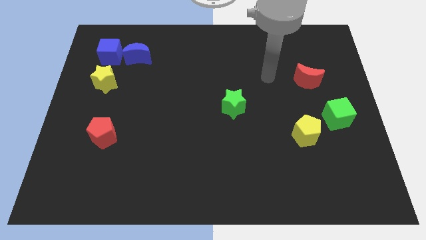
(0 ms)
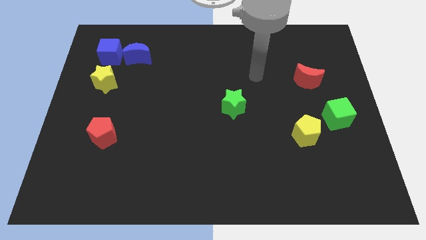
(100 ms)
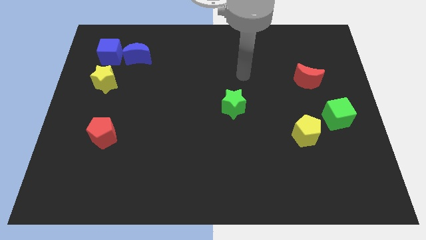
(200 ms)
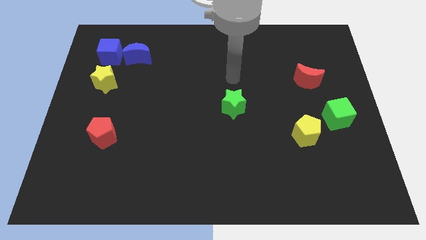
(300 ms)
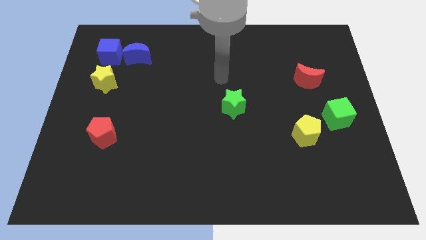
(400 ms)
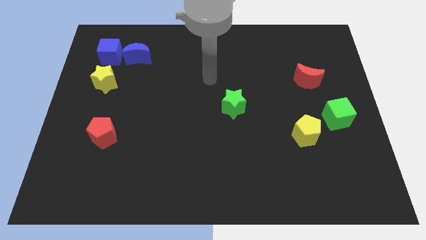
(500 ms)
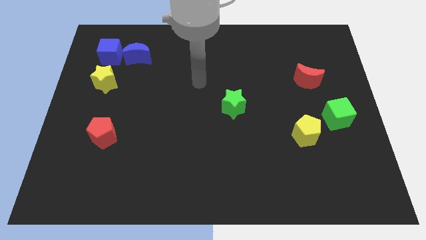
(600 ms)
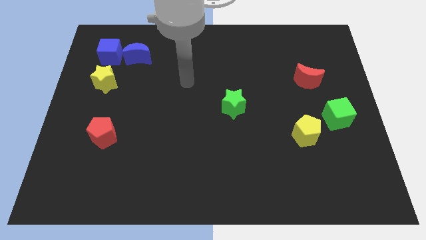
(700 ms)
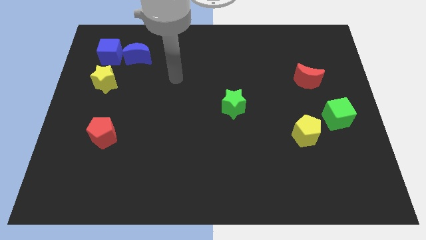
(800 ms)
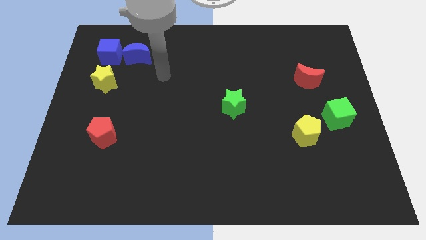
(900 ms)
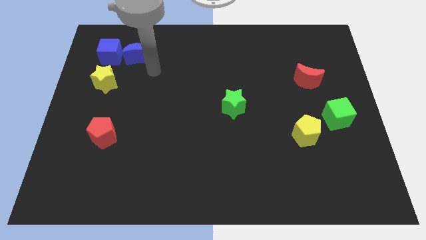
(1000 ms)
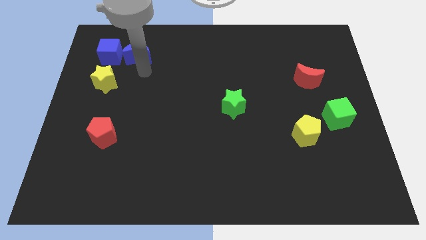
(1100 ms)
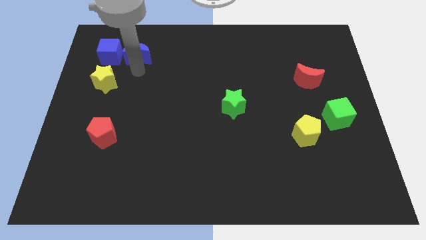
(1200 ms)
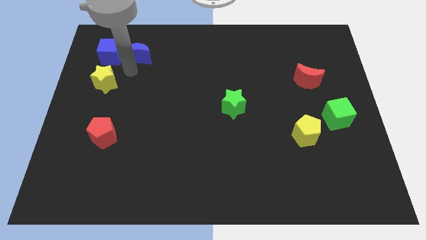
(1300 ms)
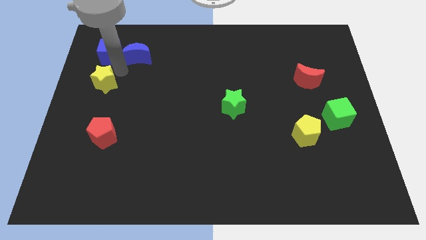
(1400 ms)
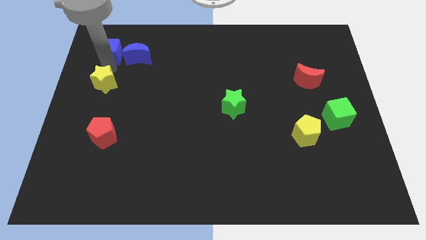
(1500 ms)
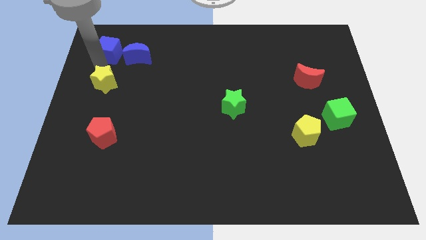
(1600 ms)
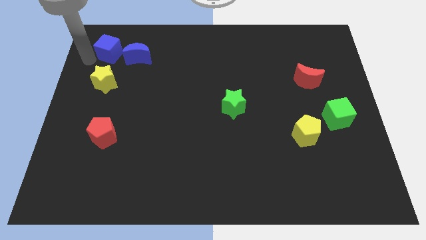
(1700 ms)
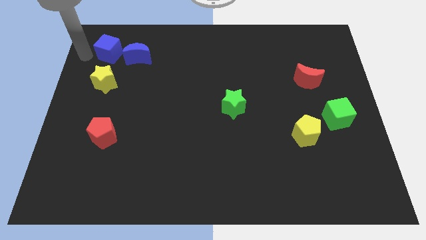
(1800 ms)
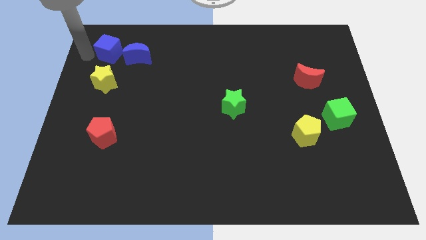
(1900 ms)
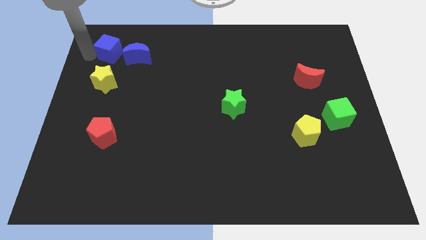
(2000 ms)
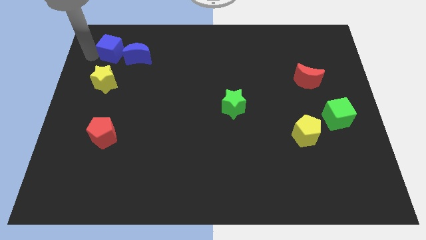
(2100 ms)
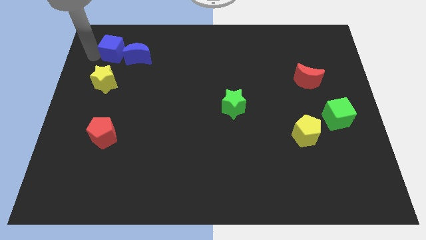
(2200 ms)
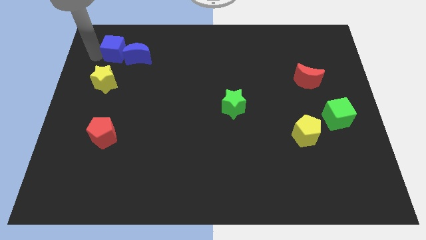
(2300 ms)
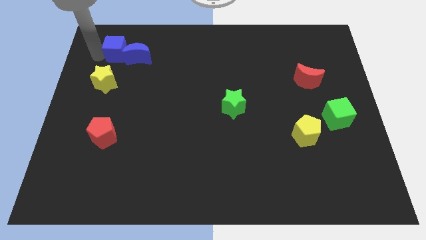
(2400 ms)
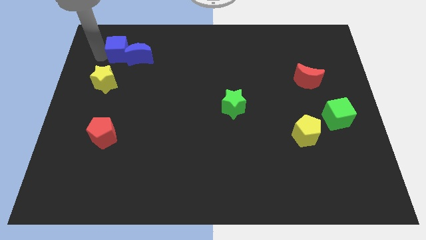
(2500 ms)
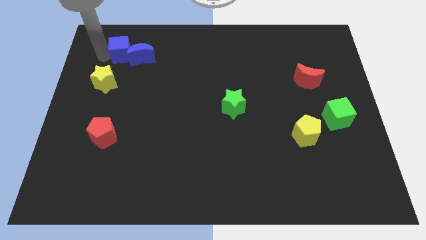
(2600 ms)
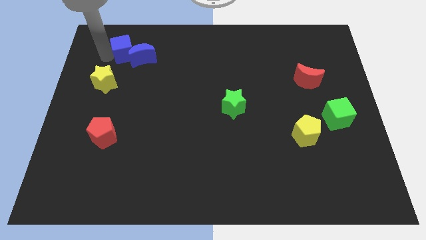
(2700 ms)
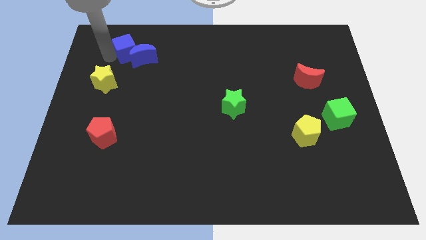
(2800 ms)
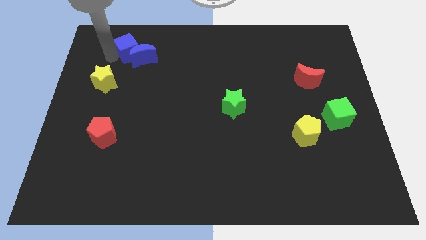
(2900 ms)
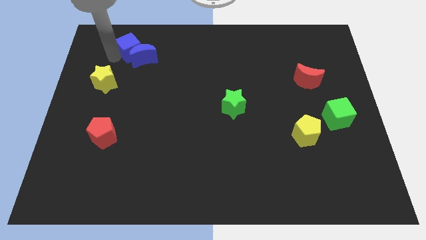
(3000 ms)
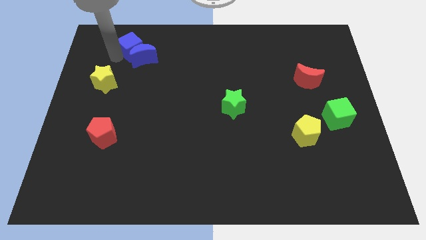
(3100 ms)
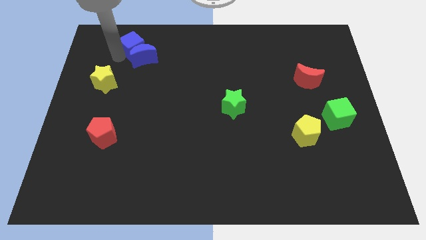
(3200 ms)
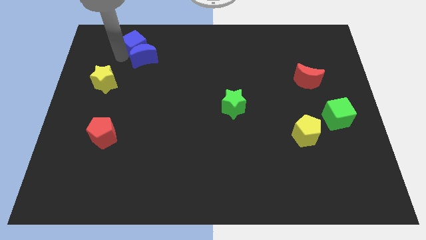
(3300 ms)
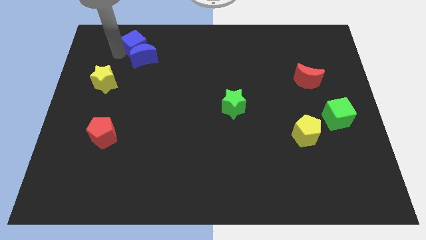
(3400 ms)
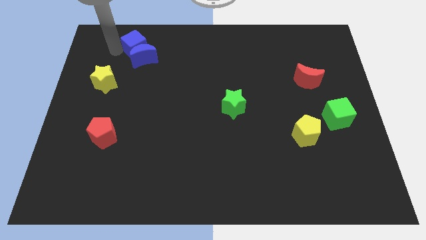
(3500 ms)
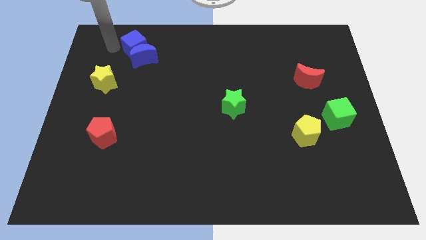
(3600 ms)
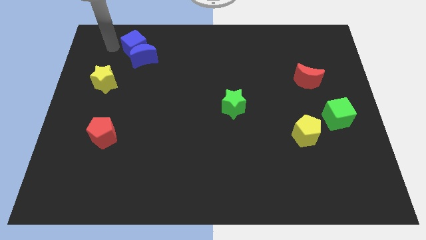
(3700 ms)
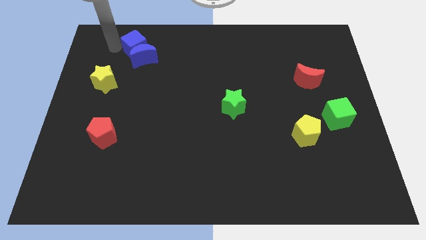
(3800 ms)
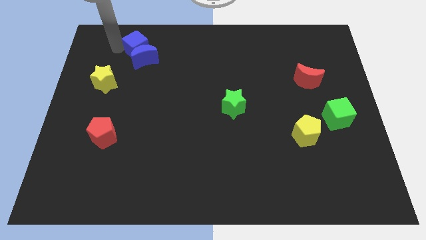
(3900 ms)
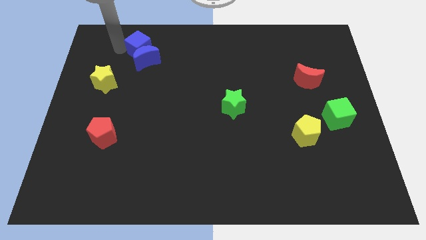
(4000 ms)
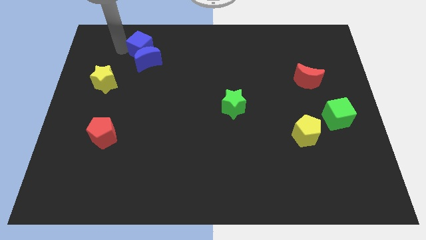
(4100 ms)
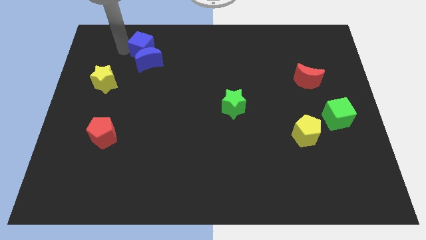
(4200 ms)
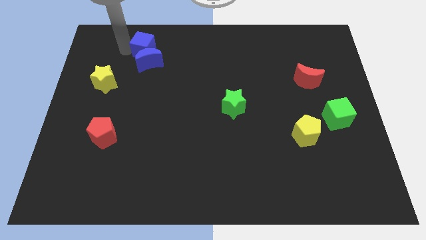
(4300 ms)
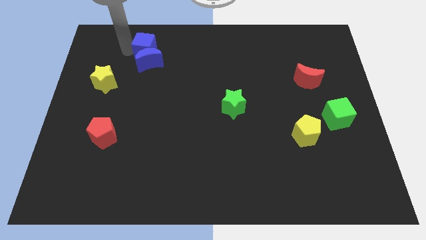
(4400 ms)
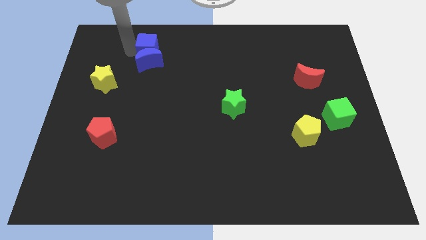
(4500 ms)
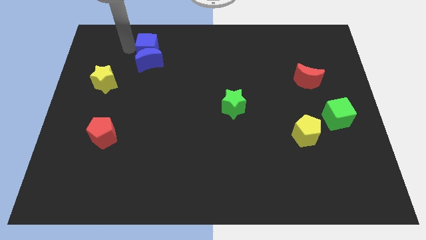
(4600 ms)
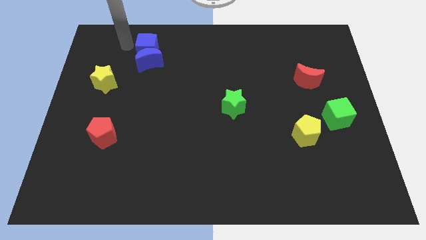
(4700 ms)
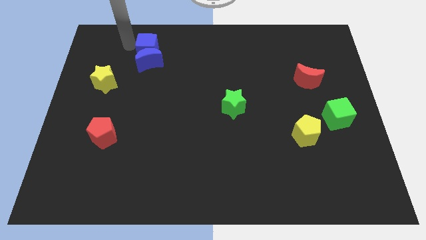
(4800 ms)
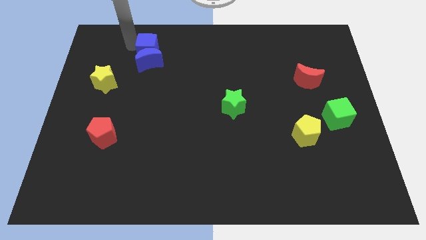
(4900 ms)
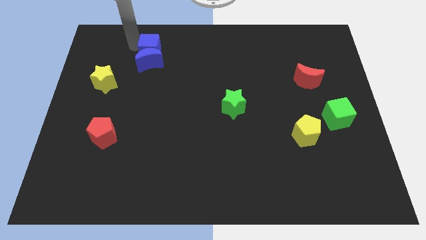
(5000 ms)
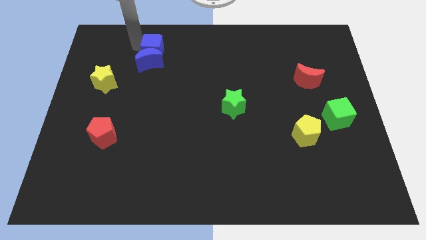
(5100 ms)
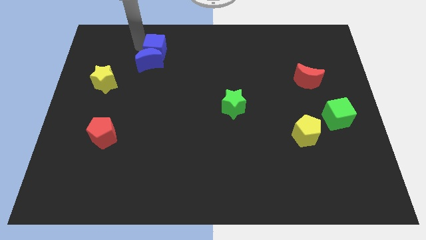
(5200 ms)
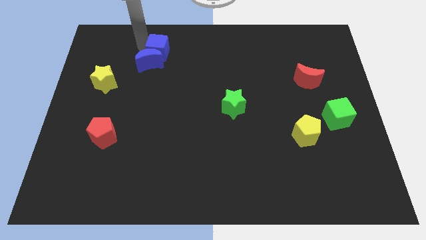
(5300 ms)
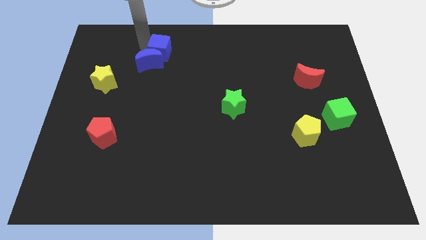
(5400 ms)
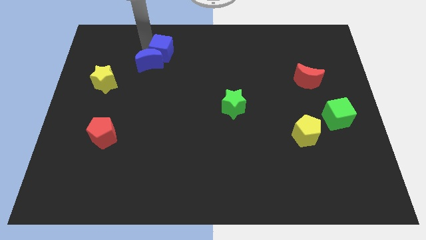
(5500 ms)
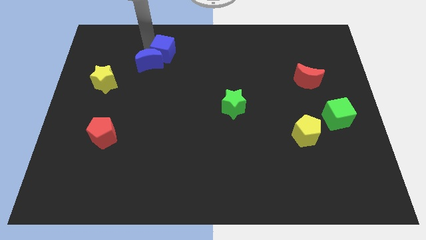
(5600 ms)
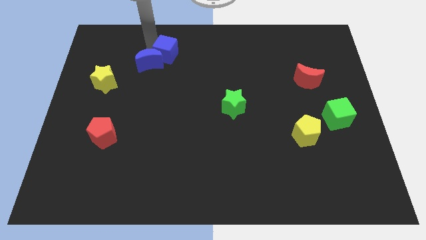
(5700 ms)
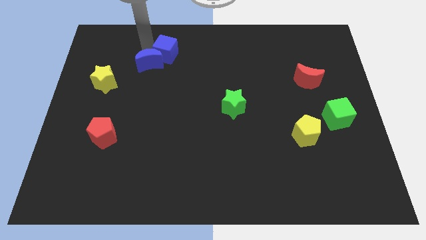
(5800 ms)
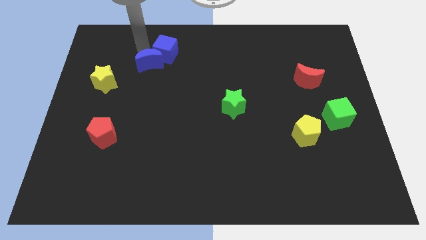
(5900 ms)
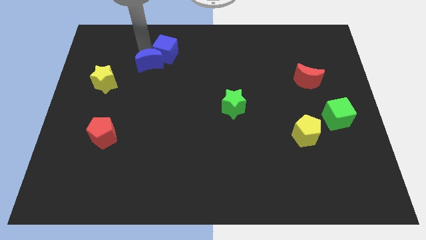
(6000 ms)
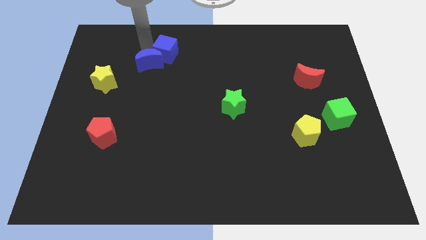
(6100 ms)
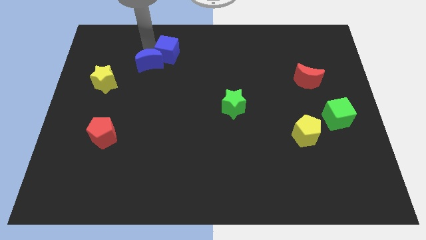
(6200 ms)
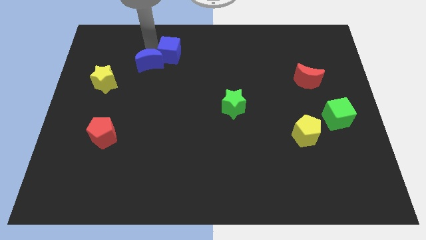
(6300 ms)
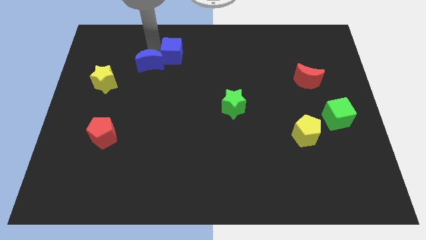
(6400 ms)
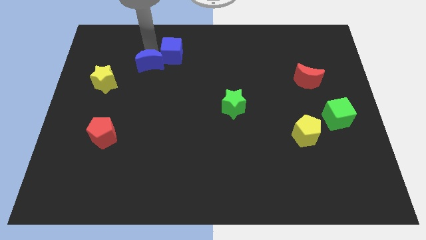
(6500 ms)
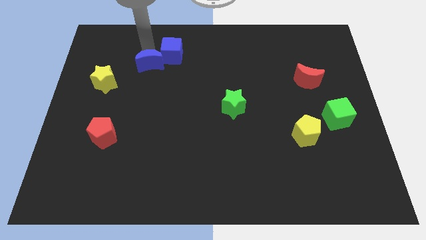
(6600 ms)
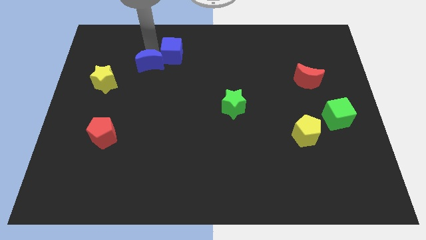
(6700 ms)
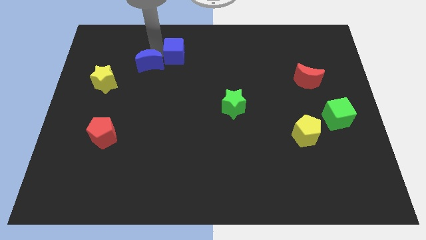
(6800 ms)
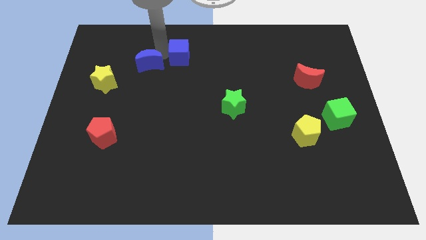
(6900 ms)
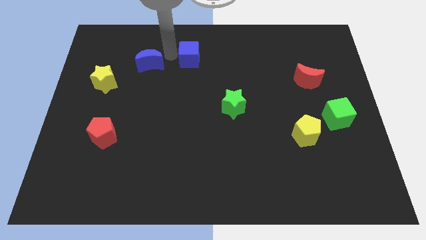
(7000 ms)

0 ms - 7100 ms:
push the blue cube to the right

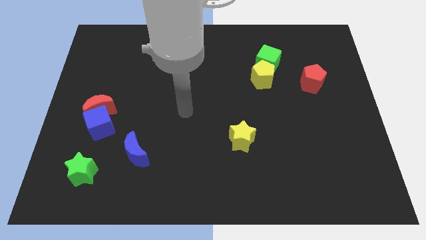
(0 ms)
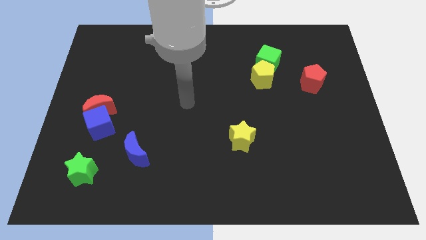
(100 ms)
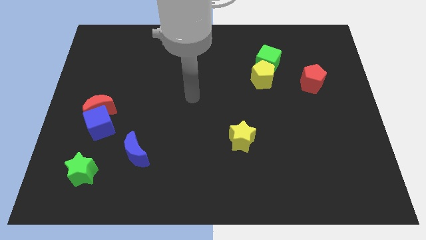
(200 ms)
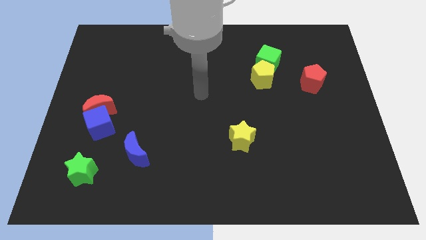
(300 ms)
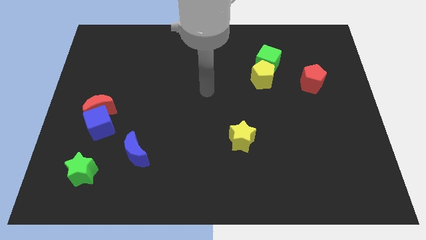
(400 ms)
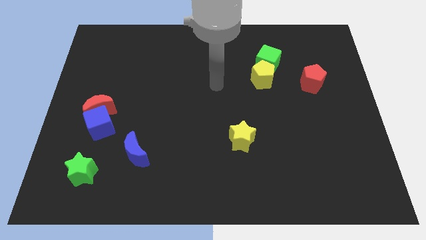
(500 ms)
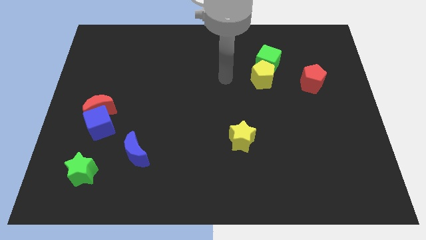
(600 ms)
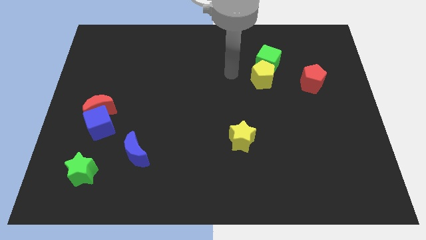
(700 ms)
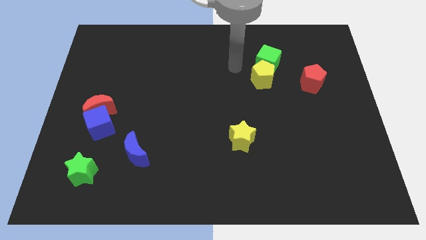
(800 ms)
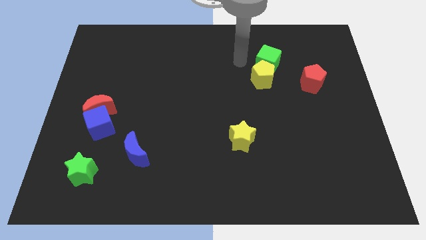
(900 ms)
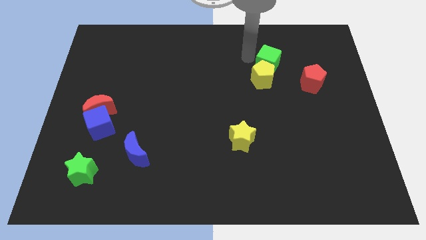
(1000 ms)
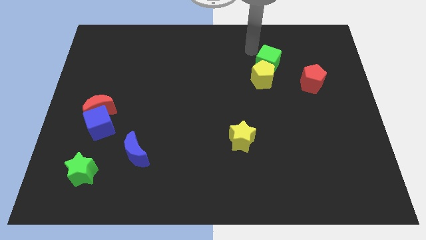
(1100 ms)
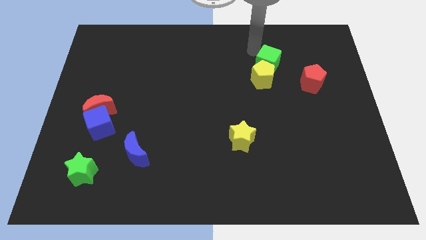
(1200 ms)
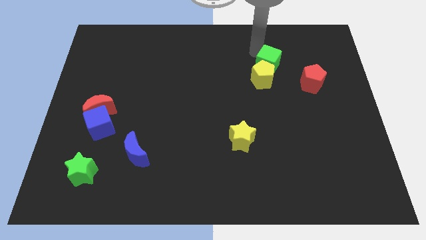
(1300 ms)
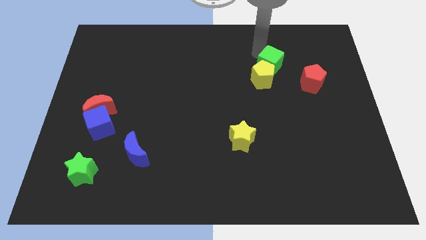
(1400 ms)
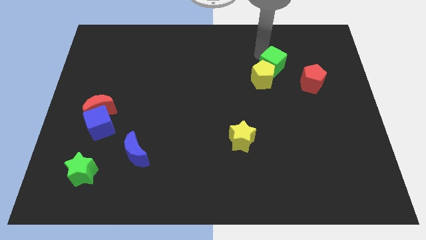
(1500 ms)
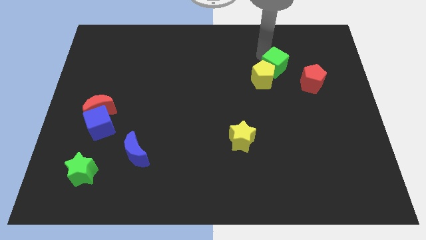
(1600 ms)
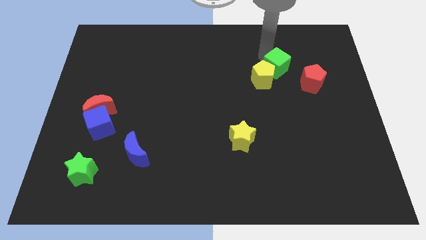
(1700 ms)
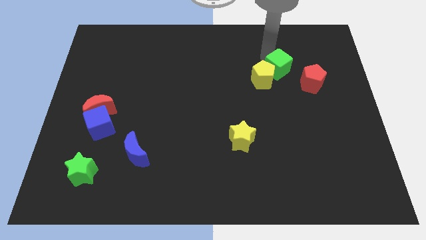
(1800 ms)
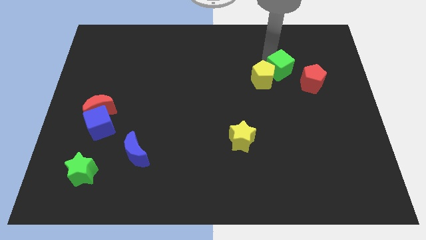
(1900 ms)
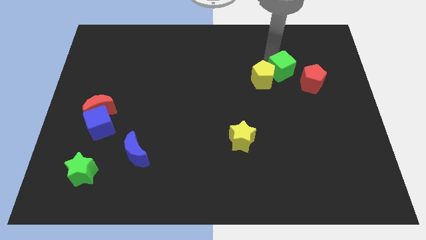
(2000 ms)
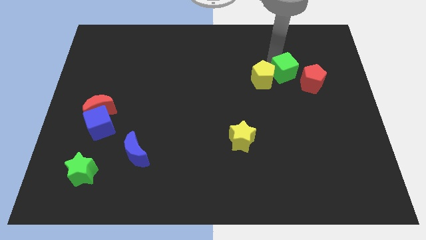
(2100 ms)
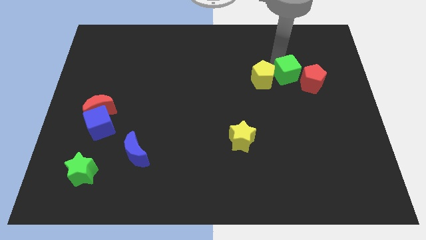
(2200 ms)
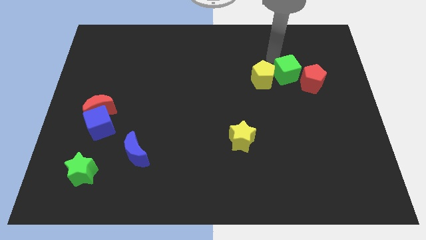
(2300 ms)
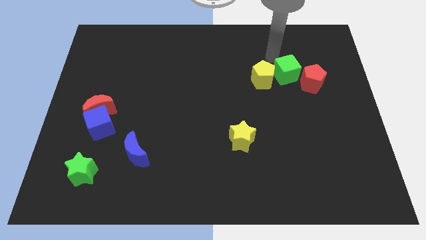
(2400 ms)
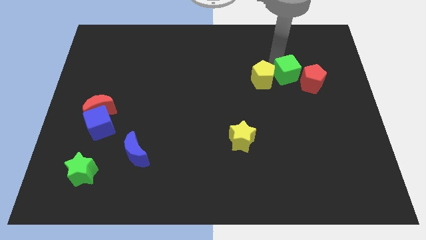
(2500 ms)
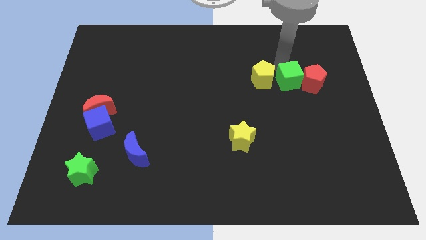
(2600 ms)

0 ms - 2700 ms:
slightly push the green cube down and right
